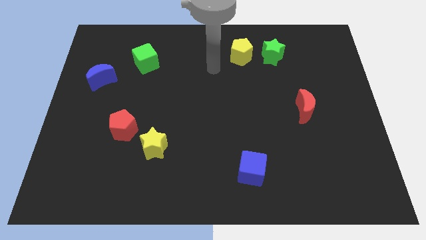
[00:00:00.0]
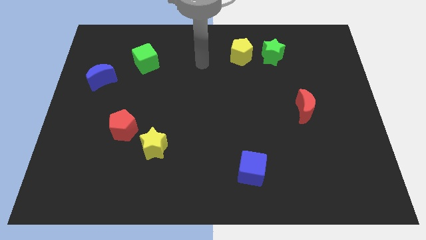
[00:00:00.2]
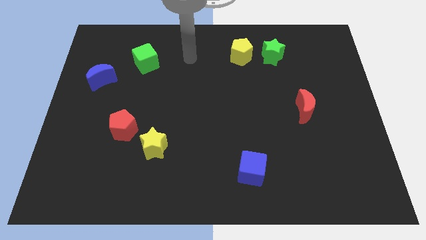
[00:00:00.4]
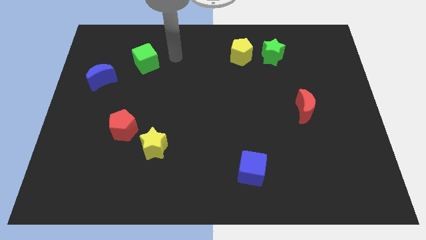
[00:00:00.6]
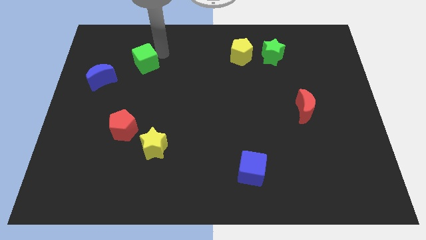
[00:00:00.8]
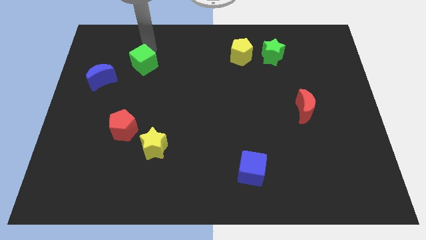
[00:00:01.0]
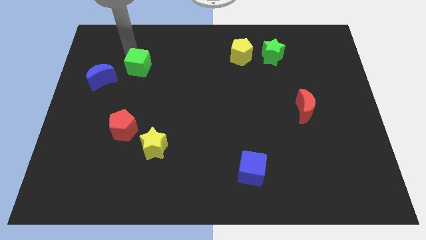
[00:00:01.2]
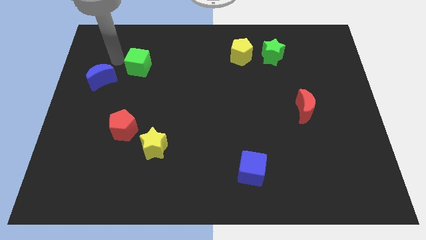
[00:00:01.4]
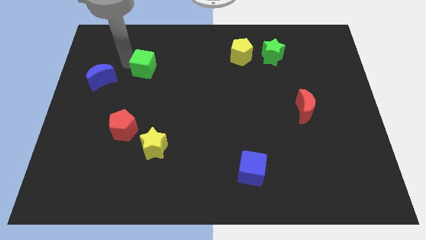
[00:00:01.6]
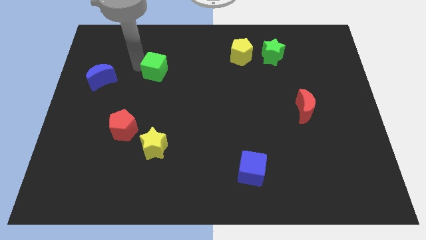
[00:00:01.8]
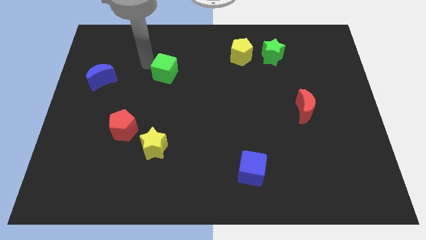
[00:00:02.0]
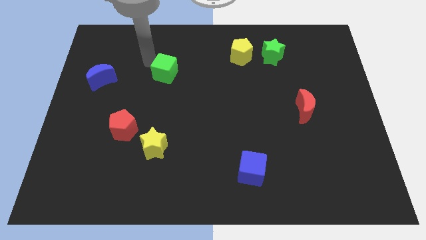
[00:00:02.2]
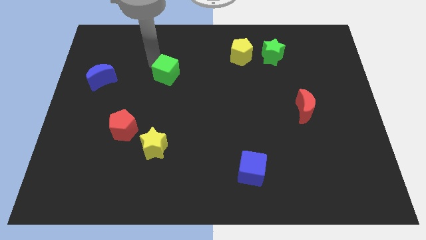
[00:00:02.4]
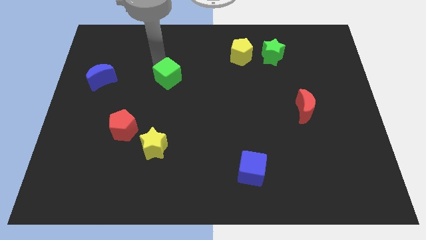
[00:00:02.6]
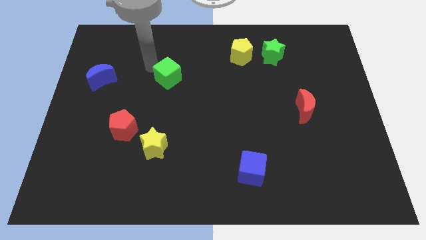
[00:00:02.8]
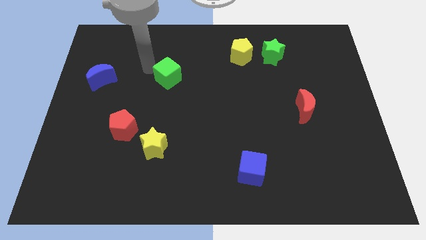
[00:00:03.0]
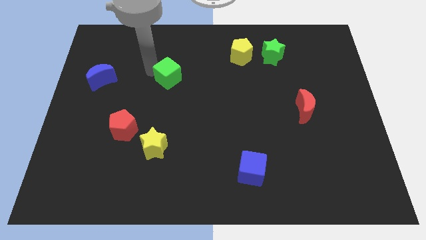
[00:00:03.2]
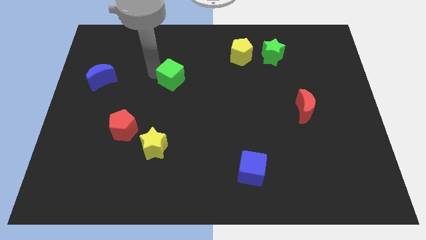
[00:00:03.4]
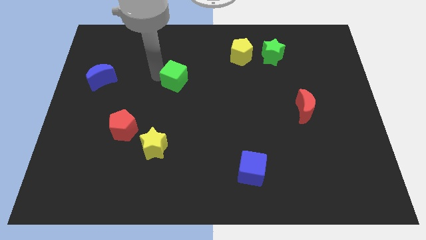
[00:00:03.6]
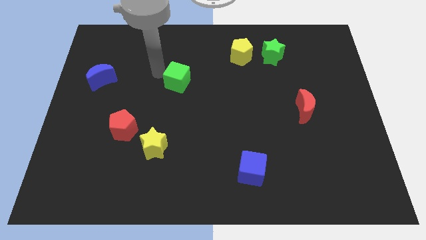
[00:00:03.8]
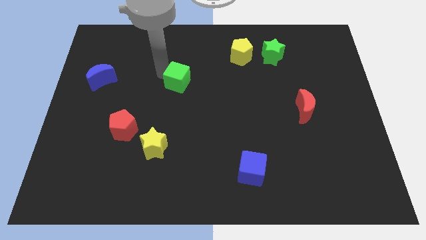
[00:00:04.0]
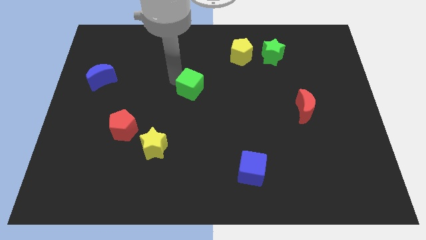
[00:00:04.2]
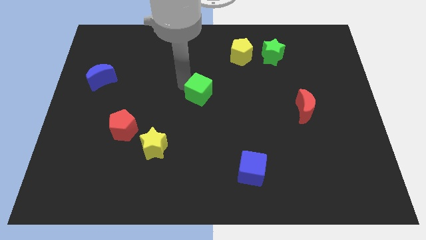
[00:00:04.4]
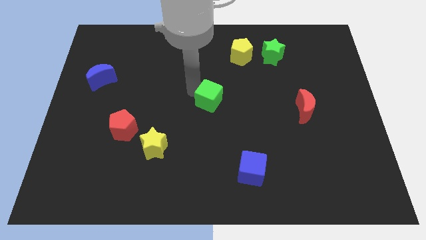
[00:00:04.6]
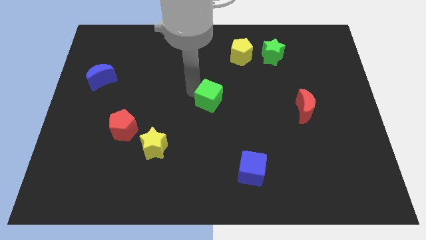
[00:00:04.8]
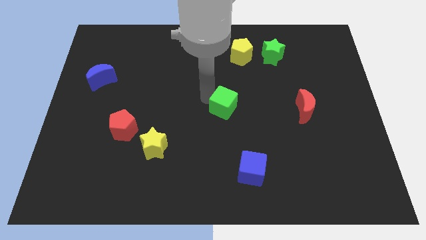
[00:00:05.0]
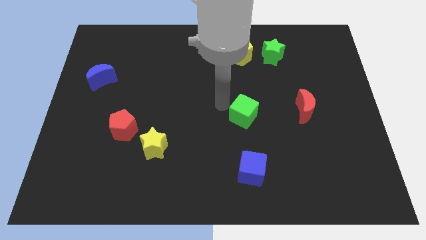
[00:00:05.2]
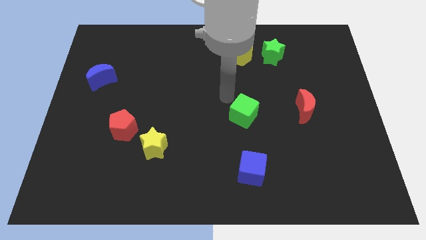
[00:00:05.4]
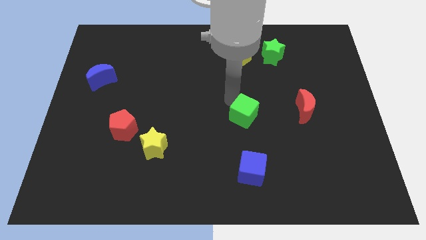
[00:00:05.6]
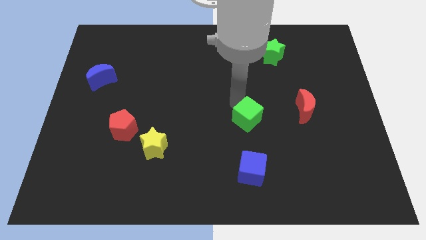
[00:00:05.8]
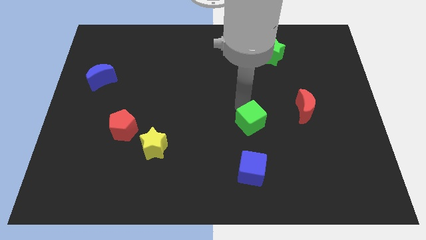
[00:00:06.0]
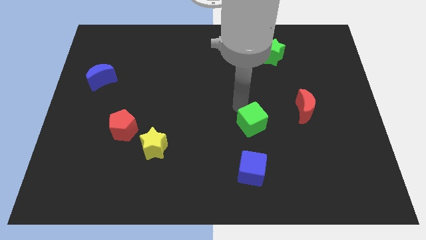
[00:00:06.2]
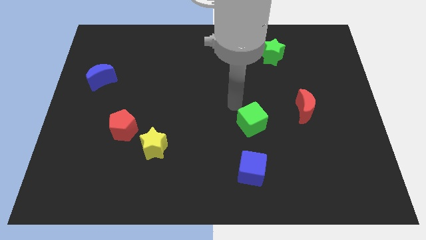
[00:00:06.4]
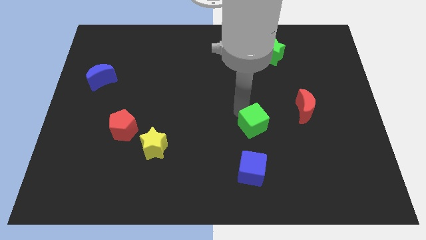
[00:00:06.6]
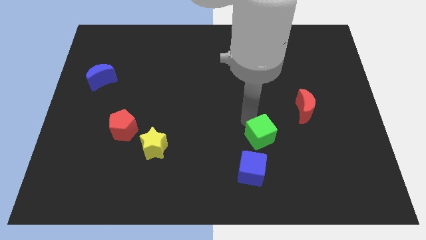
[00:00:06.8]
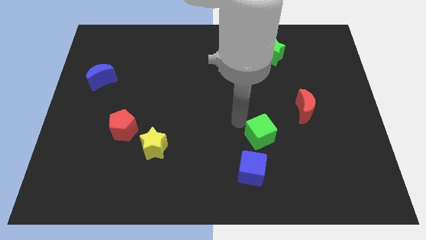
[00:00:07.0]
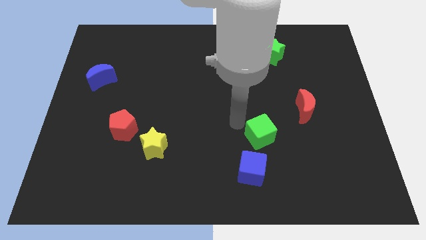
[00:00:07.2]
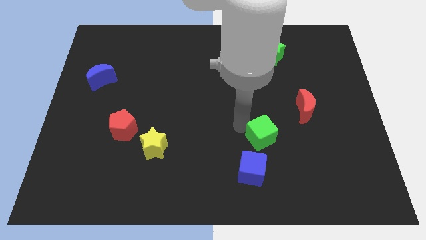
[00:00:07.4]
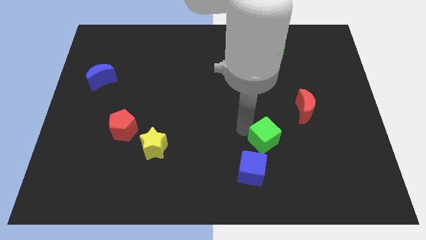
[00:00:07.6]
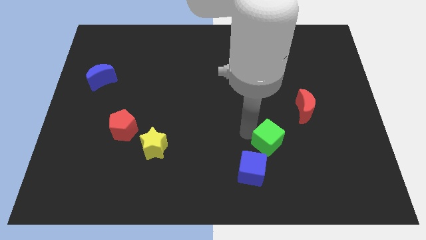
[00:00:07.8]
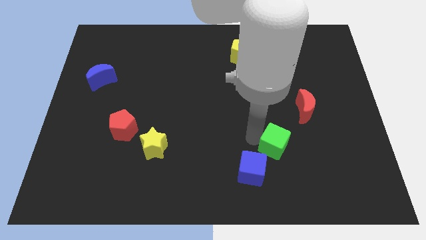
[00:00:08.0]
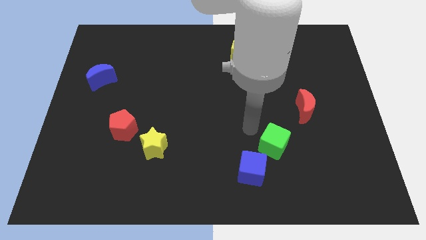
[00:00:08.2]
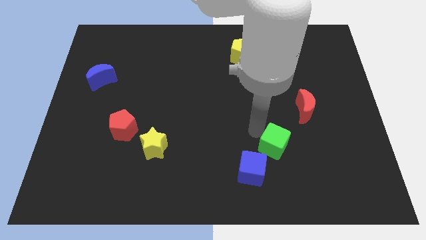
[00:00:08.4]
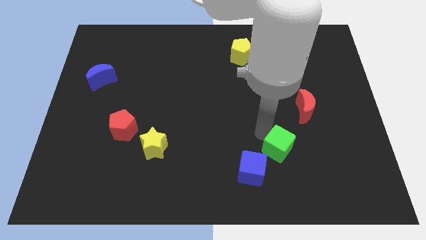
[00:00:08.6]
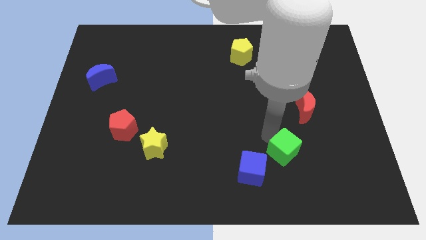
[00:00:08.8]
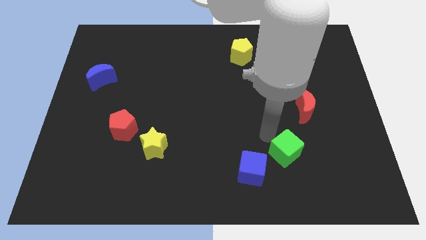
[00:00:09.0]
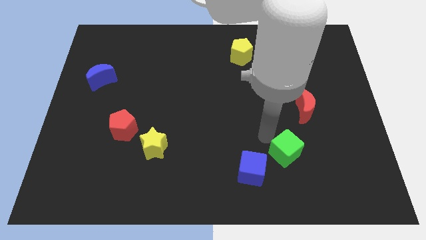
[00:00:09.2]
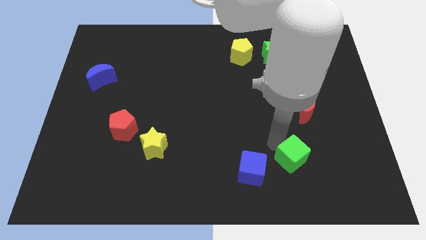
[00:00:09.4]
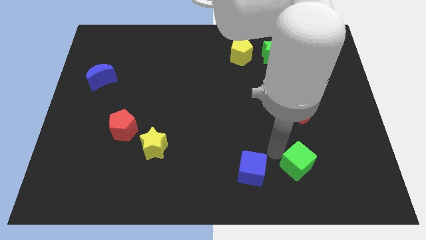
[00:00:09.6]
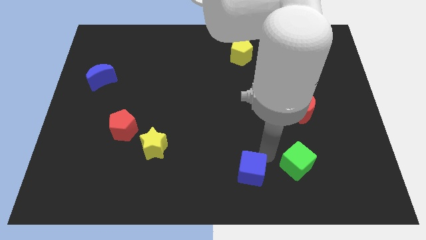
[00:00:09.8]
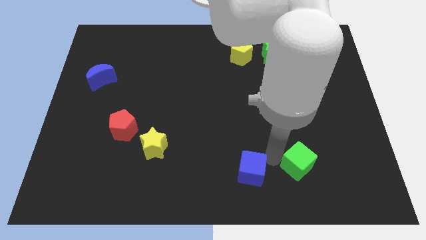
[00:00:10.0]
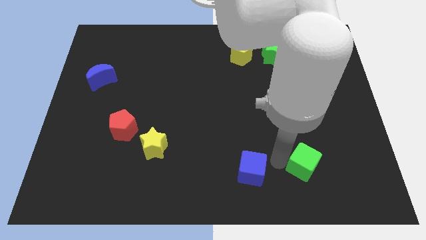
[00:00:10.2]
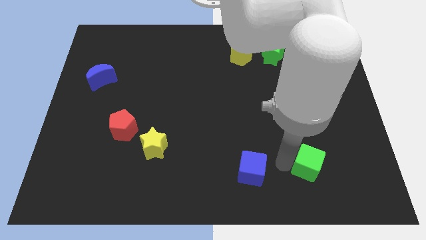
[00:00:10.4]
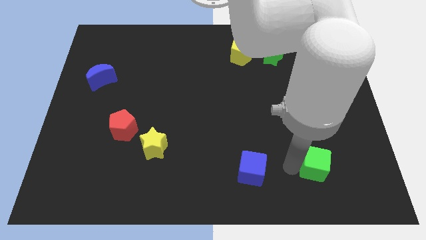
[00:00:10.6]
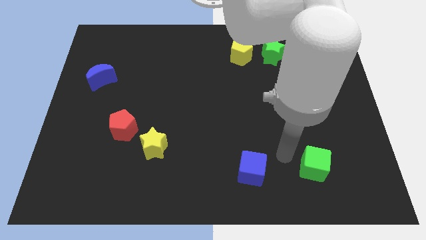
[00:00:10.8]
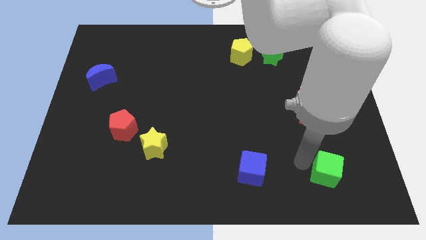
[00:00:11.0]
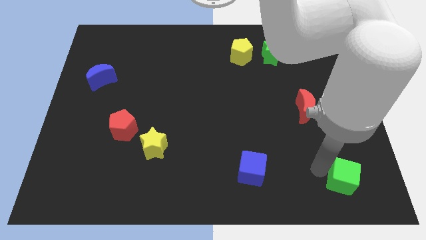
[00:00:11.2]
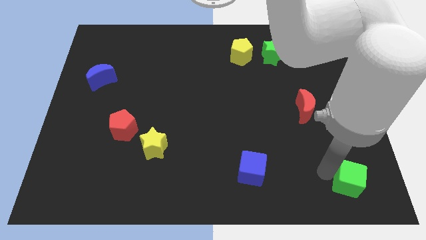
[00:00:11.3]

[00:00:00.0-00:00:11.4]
slide the green cube to the bottom right of the board
